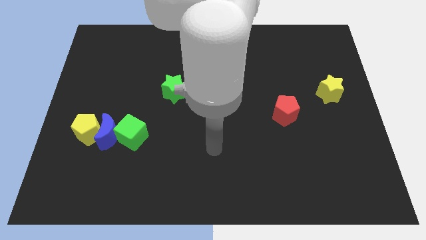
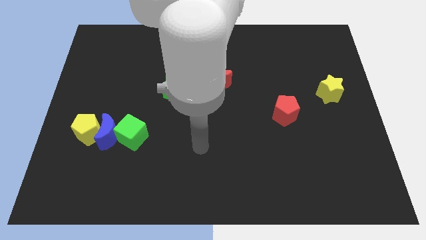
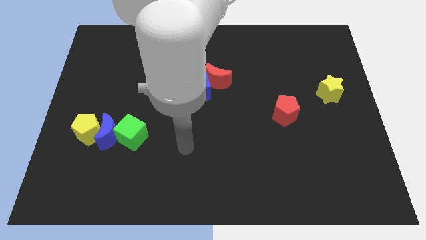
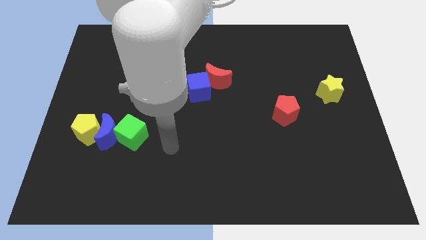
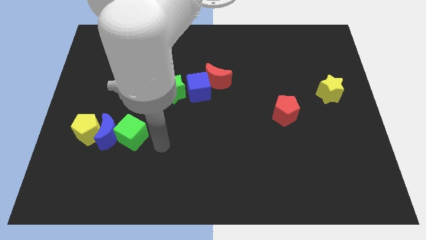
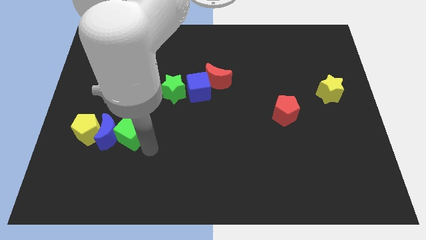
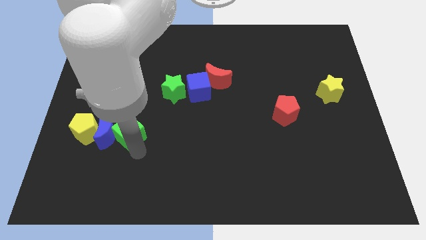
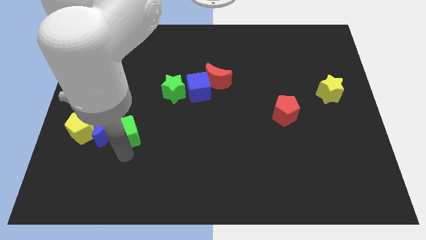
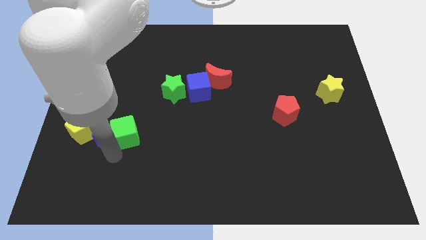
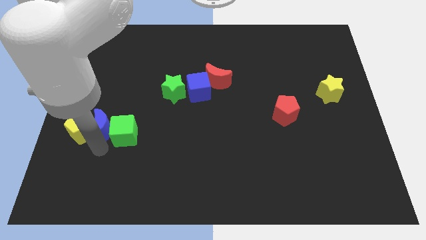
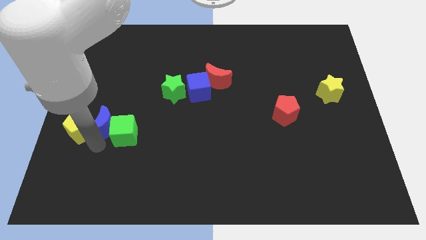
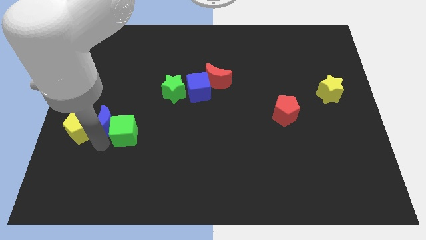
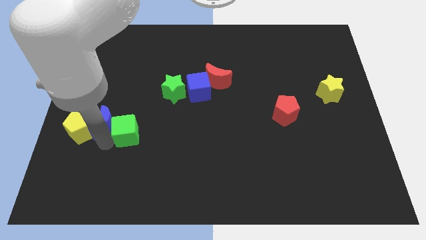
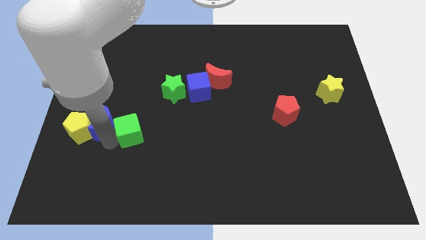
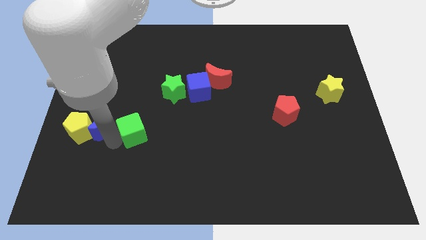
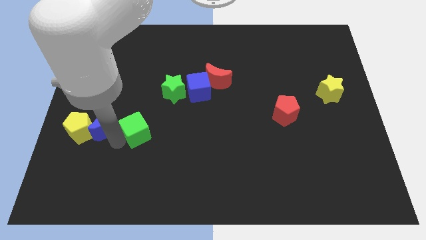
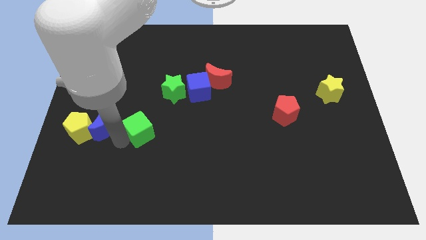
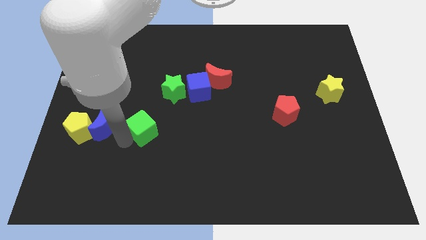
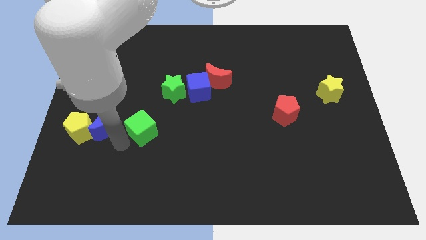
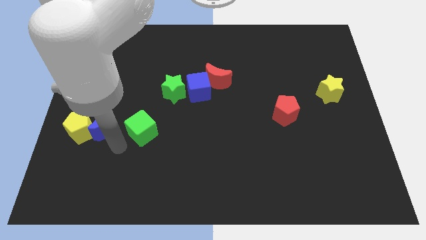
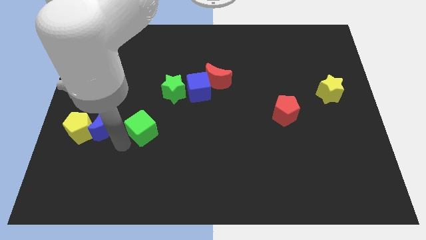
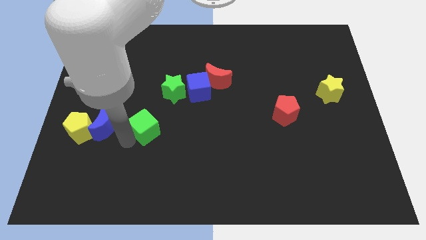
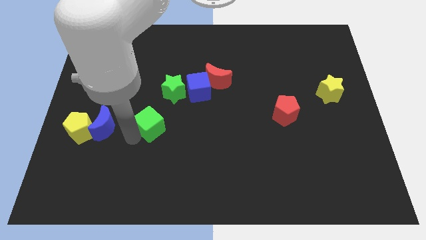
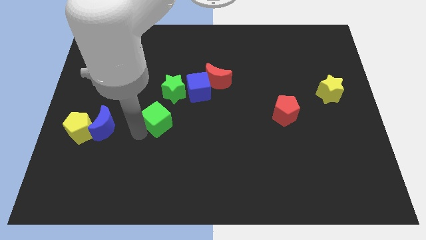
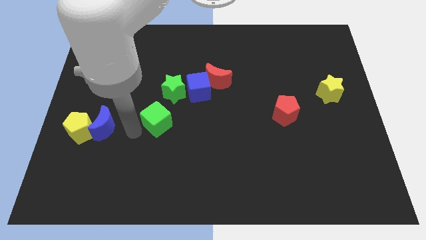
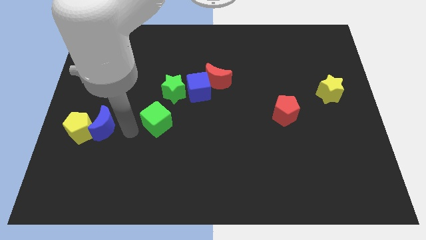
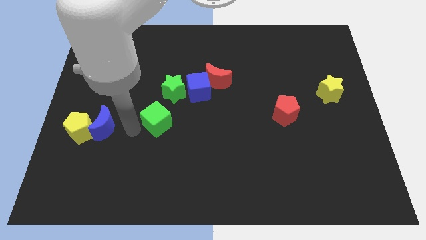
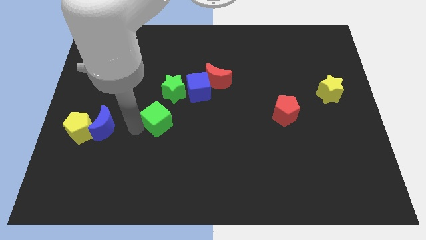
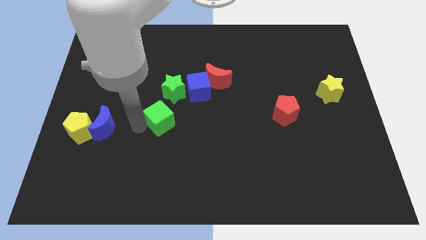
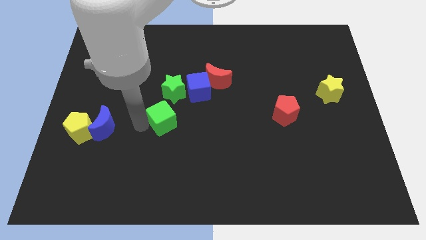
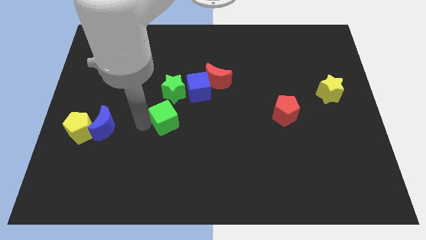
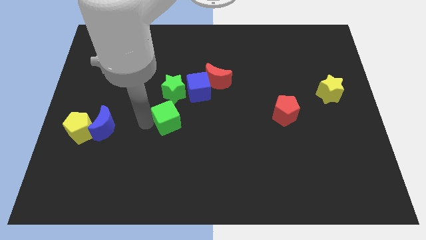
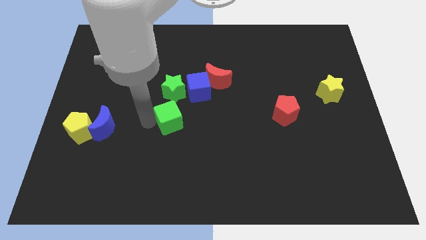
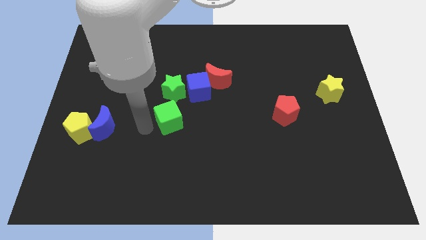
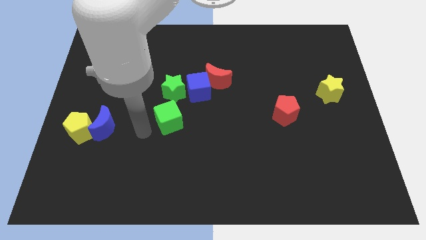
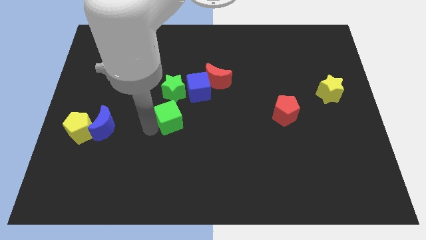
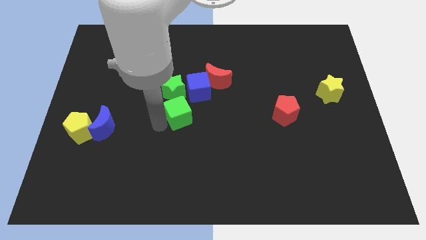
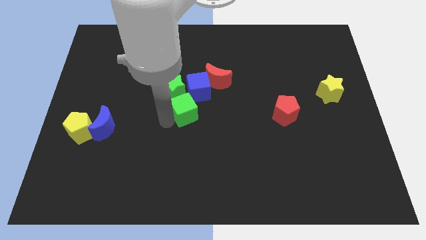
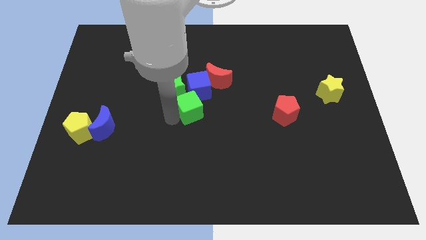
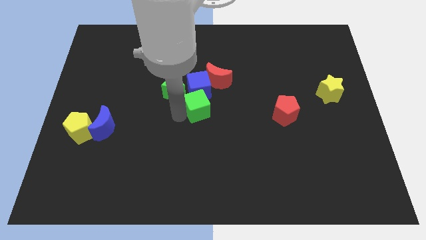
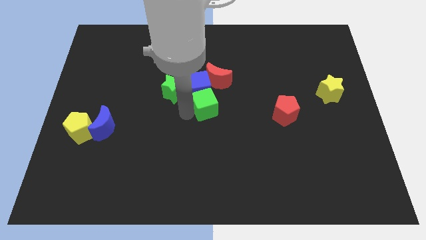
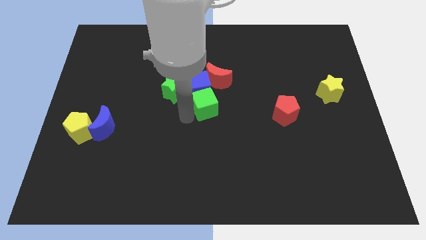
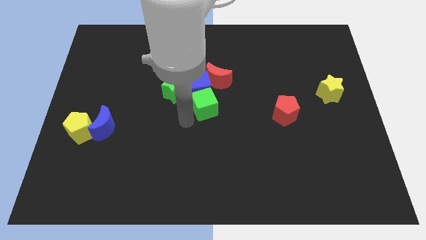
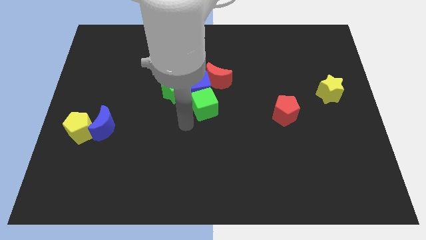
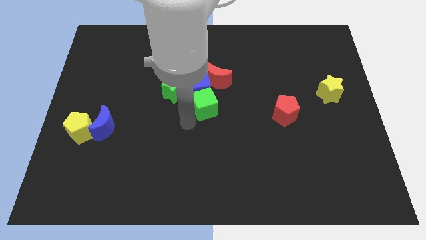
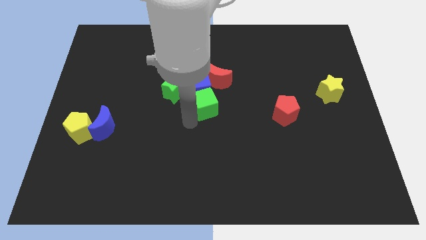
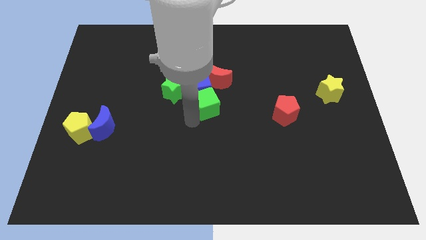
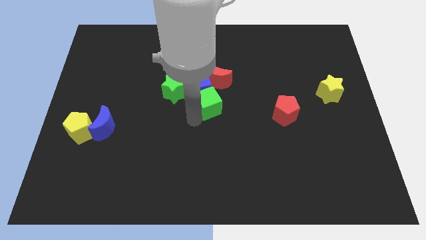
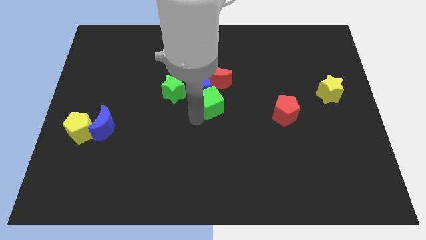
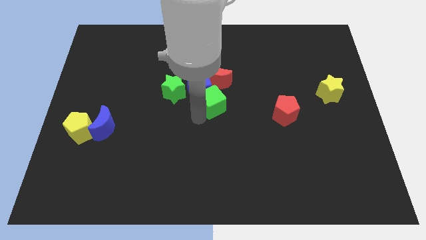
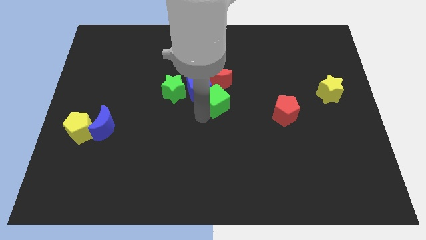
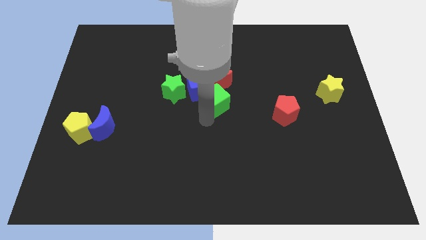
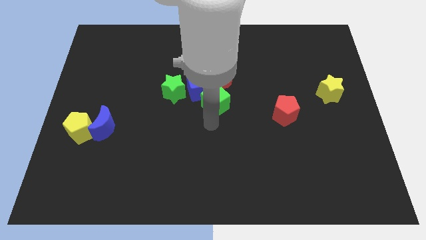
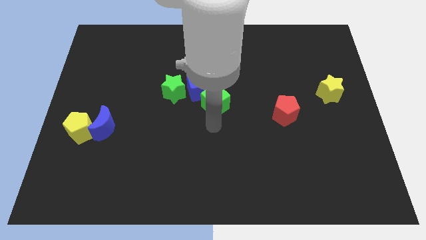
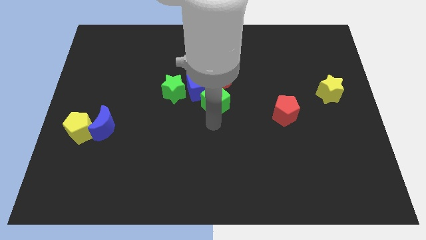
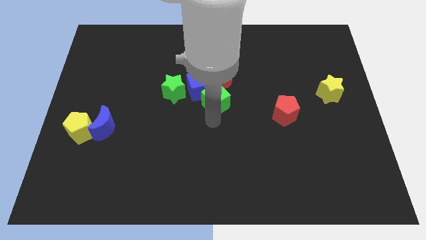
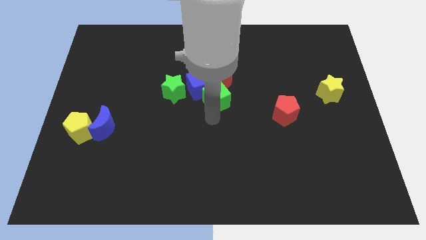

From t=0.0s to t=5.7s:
move the green cube to the red moon

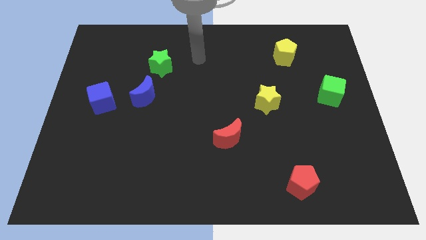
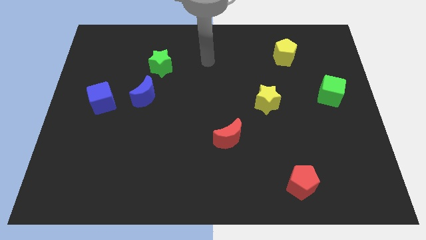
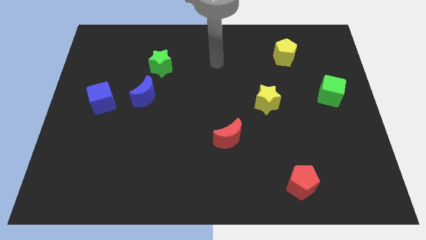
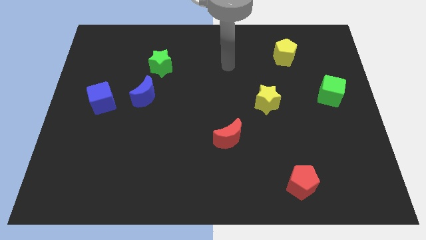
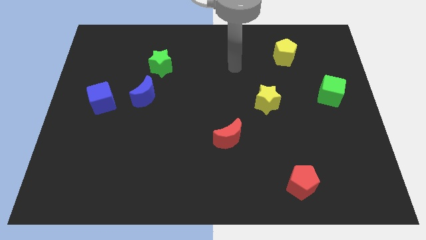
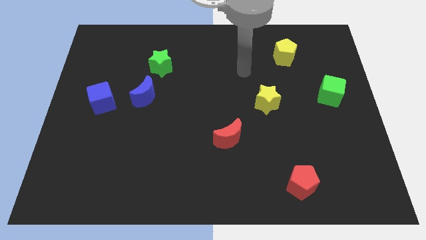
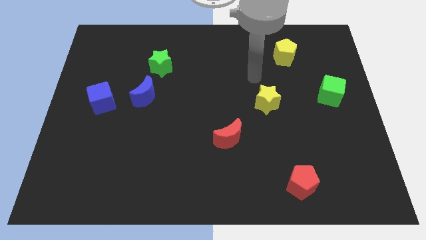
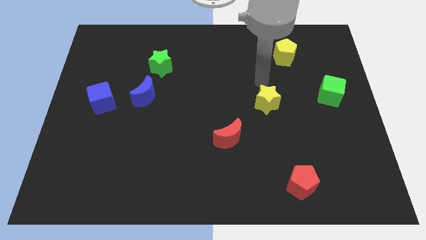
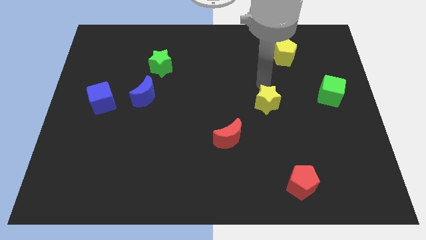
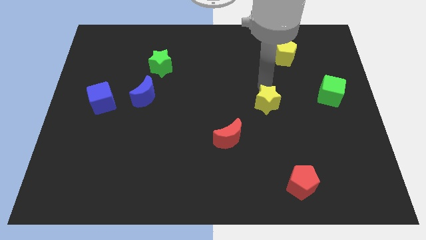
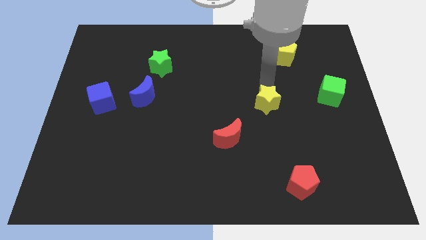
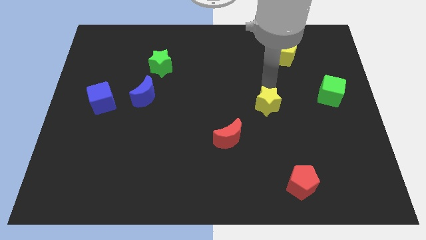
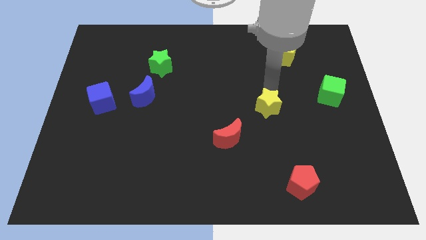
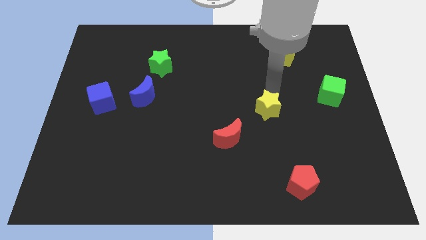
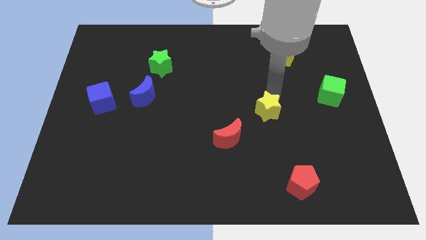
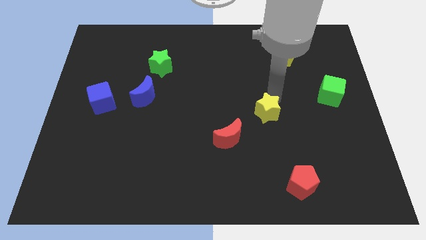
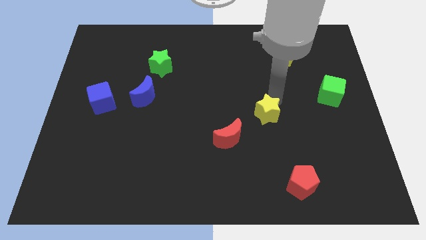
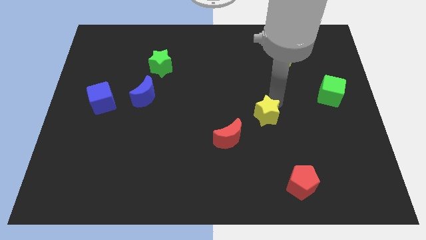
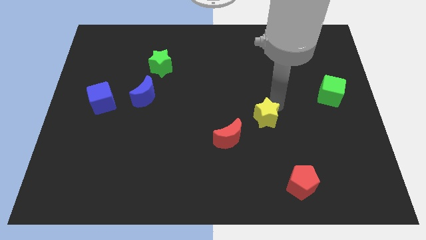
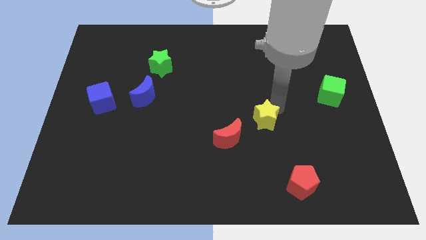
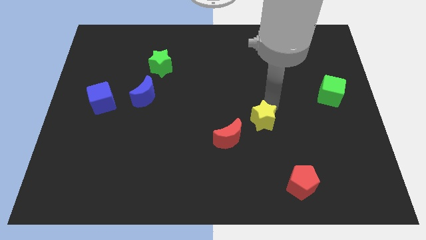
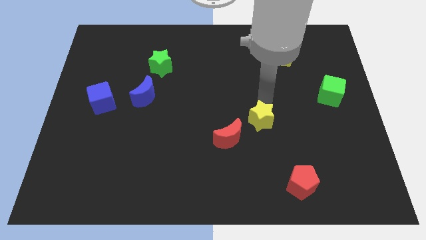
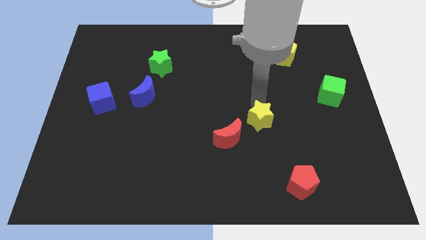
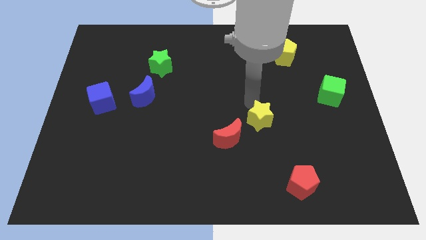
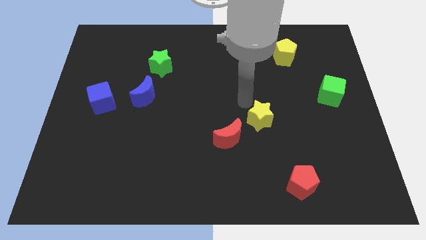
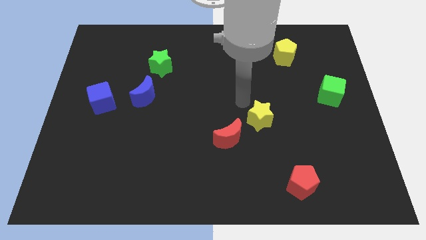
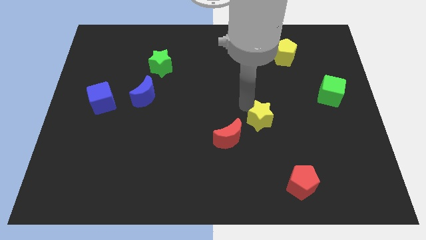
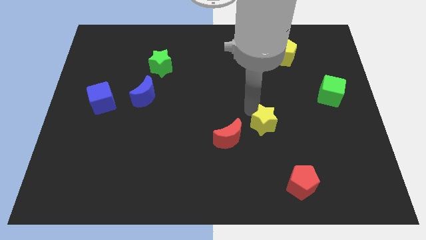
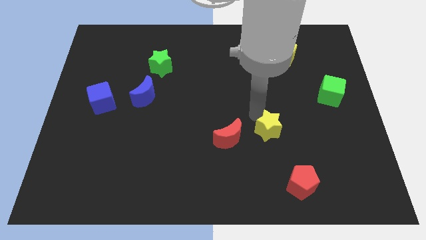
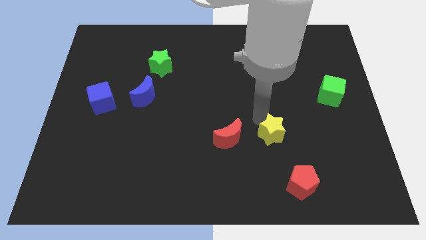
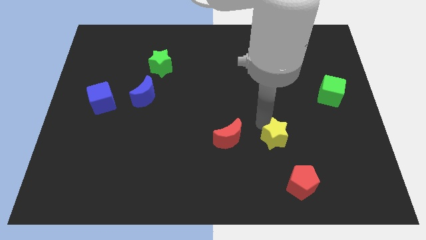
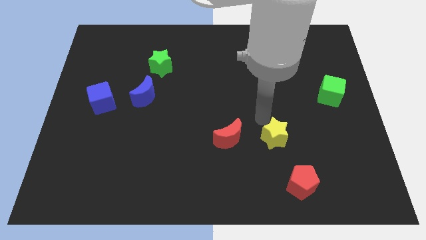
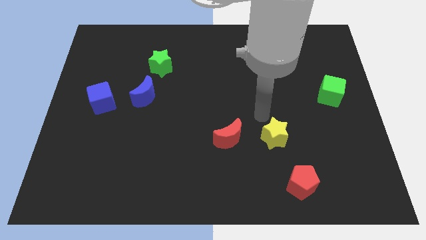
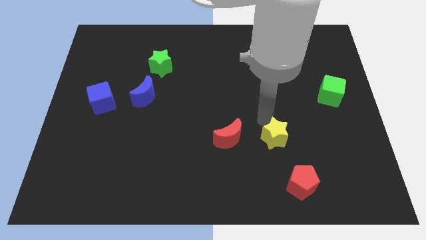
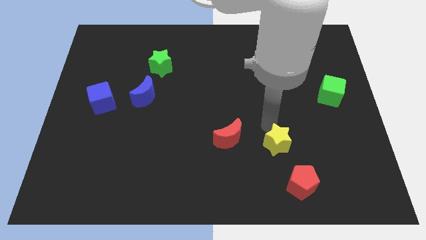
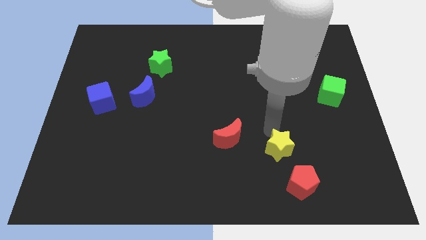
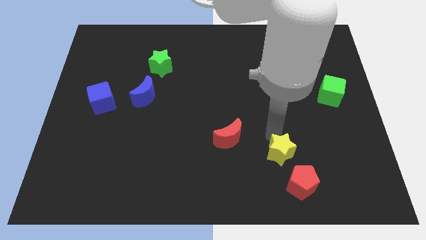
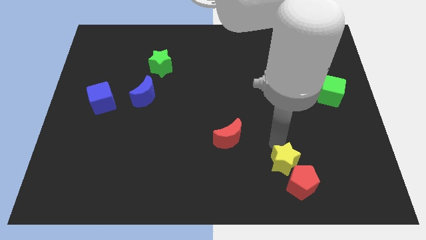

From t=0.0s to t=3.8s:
slide the yellow star towards the red pentagon
